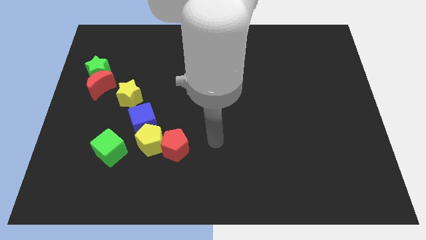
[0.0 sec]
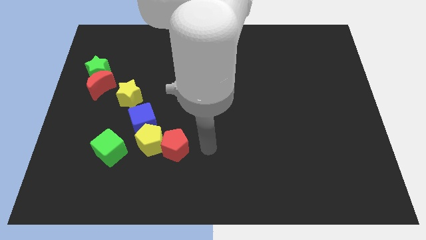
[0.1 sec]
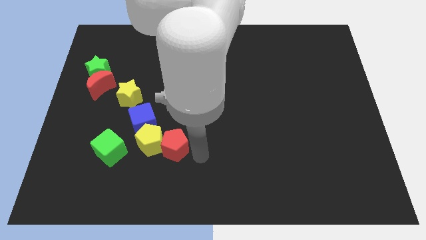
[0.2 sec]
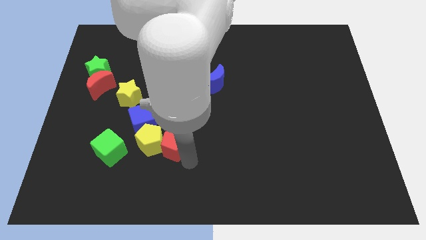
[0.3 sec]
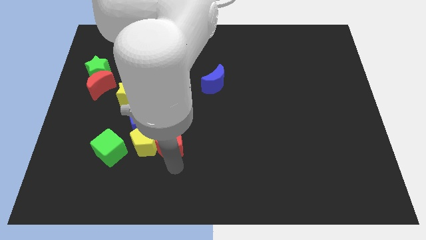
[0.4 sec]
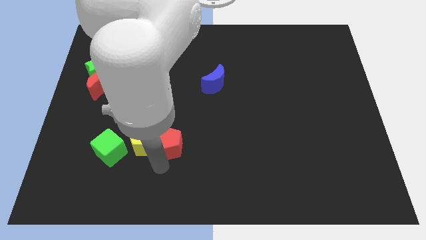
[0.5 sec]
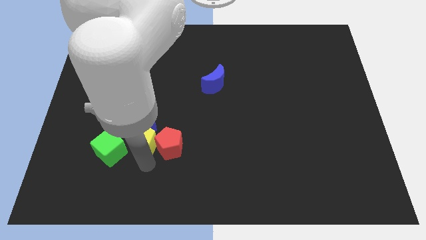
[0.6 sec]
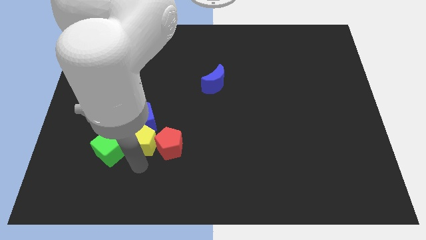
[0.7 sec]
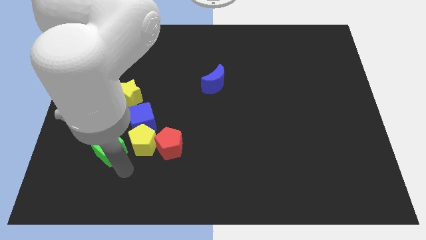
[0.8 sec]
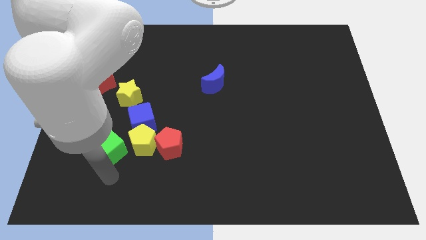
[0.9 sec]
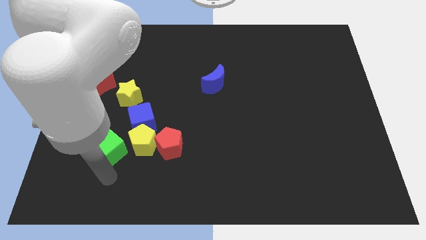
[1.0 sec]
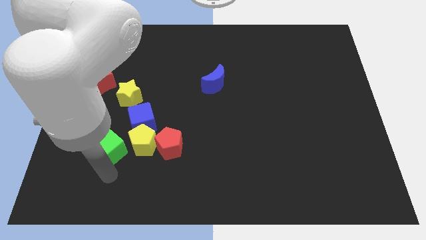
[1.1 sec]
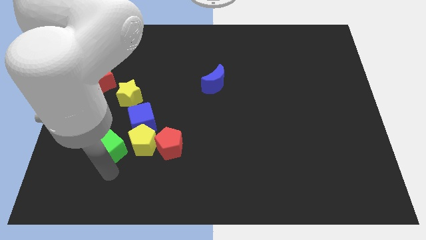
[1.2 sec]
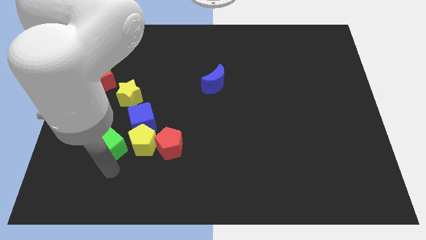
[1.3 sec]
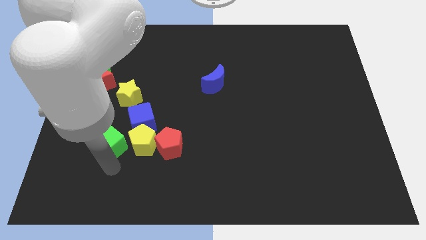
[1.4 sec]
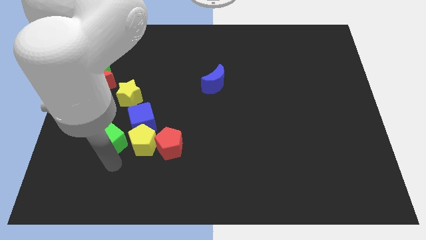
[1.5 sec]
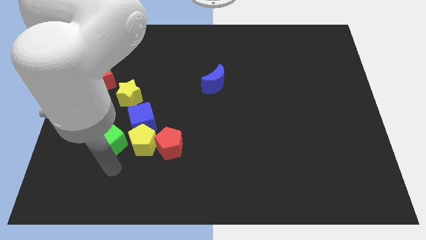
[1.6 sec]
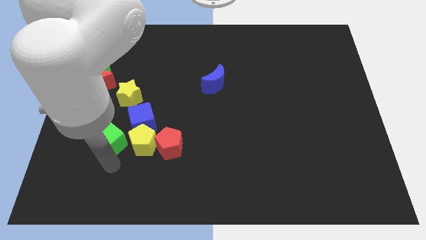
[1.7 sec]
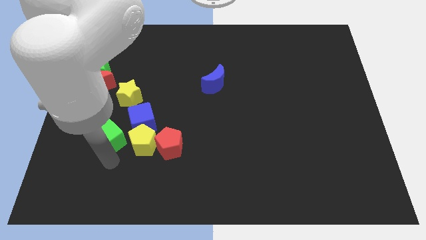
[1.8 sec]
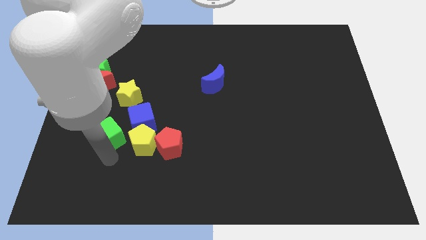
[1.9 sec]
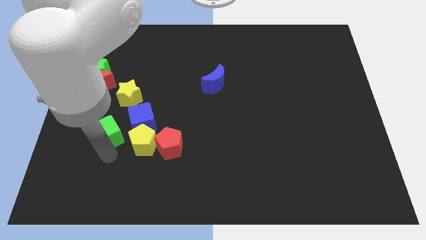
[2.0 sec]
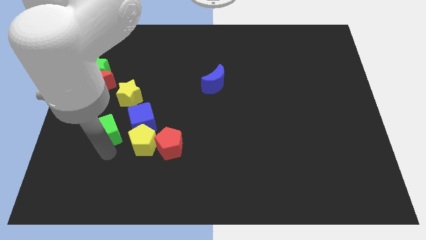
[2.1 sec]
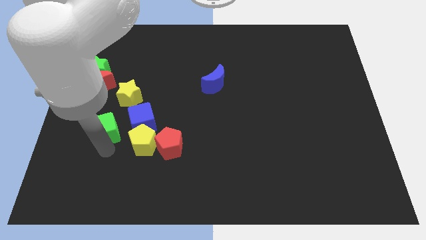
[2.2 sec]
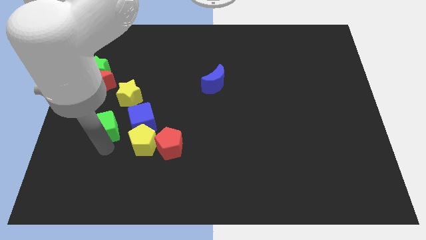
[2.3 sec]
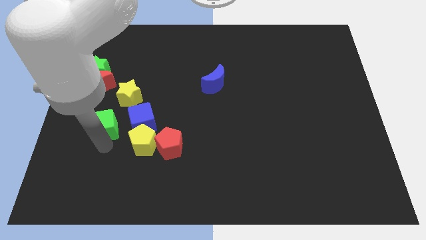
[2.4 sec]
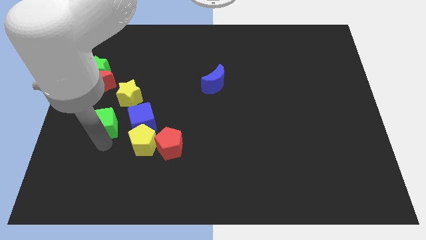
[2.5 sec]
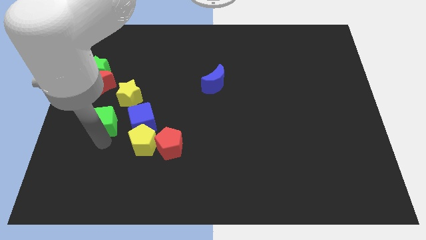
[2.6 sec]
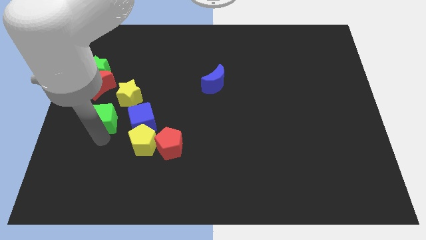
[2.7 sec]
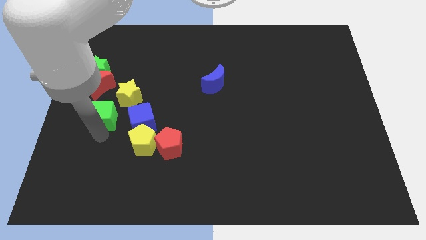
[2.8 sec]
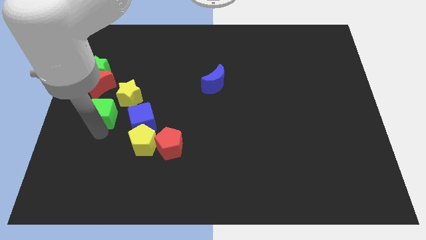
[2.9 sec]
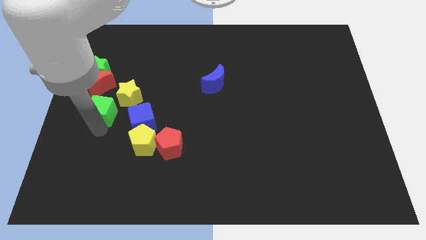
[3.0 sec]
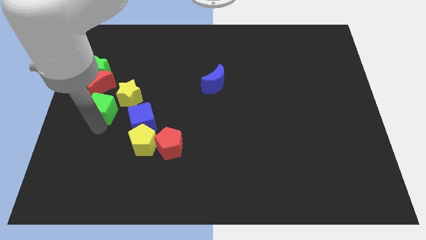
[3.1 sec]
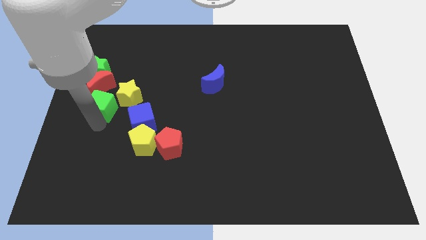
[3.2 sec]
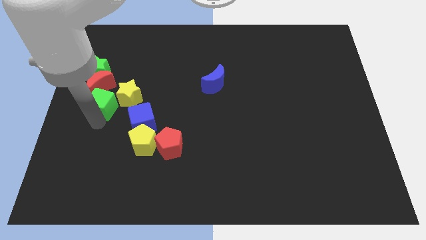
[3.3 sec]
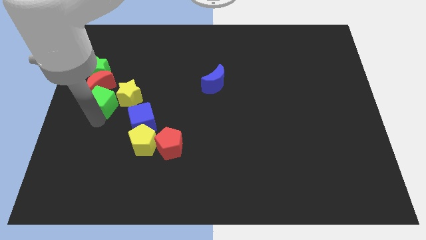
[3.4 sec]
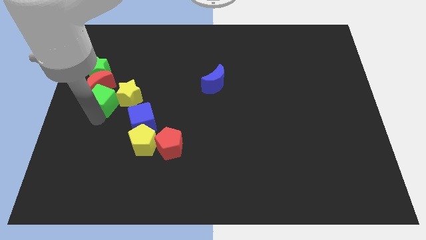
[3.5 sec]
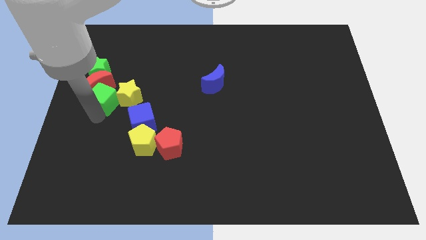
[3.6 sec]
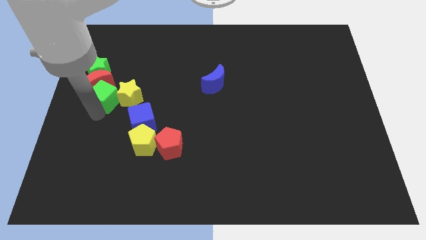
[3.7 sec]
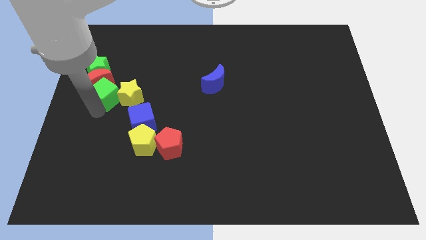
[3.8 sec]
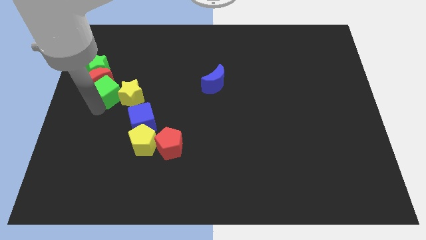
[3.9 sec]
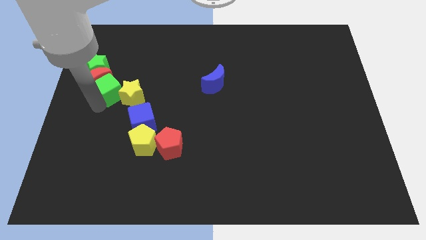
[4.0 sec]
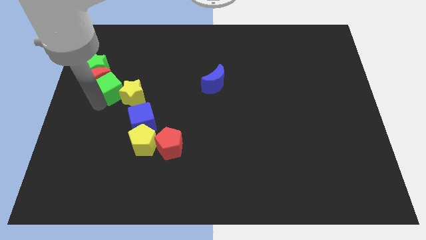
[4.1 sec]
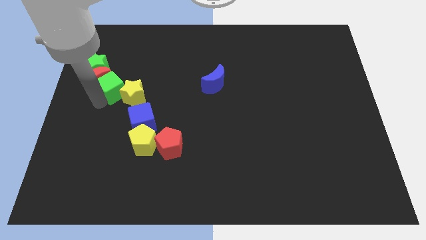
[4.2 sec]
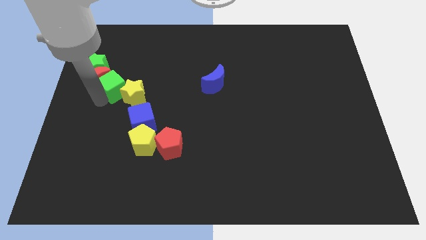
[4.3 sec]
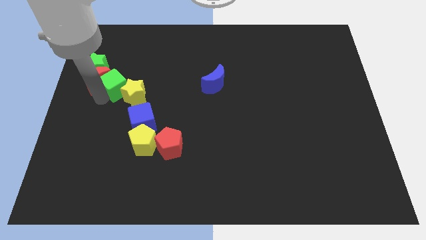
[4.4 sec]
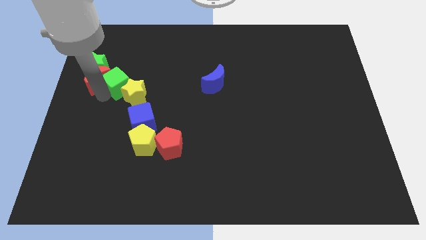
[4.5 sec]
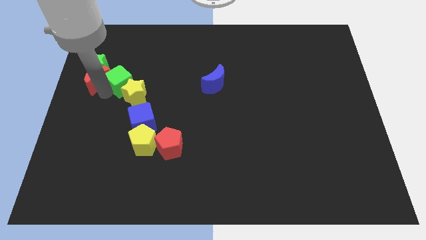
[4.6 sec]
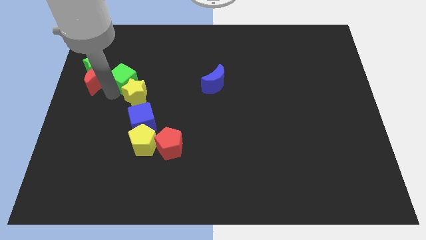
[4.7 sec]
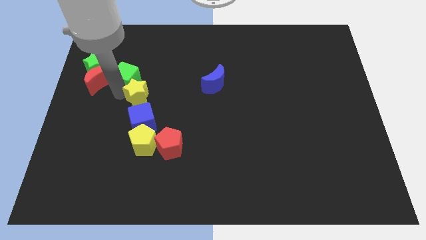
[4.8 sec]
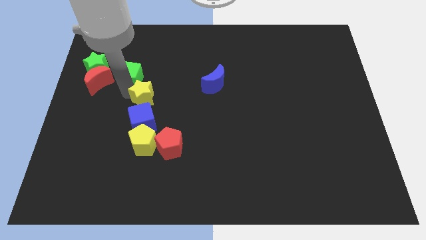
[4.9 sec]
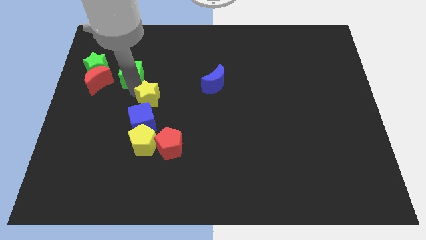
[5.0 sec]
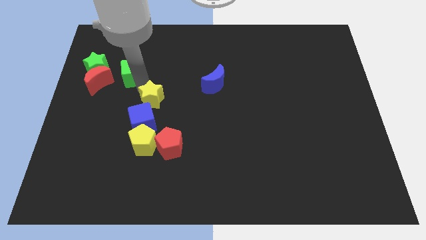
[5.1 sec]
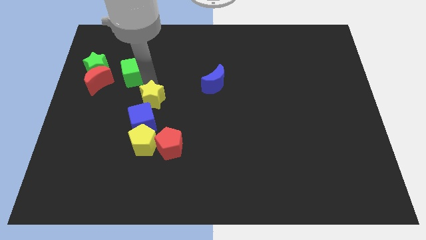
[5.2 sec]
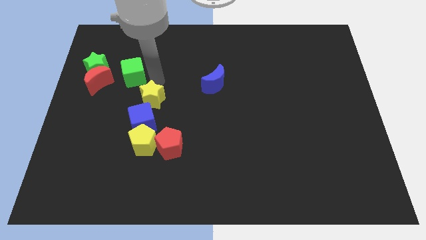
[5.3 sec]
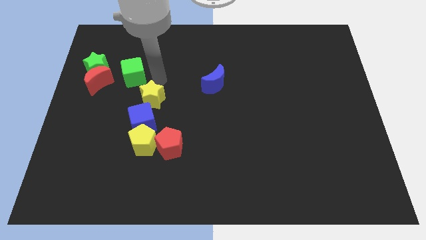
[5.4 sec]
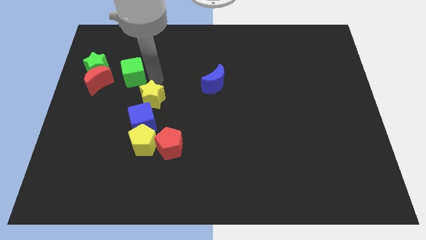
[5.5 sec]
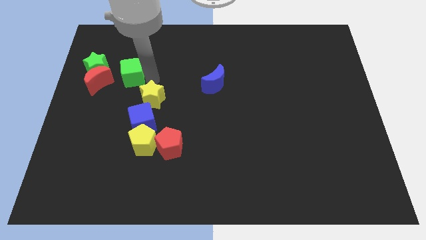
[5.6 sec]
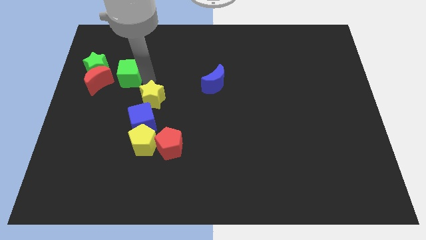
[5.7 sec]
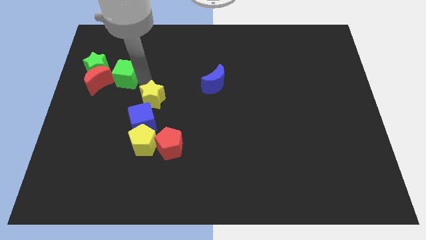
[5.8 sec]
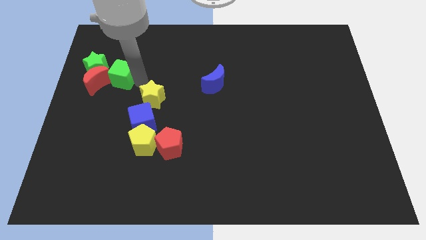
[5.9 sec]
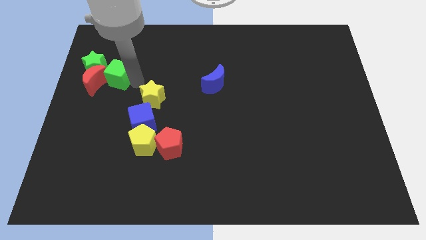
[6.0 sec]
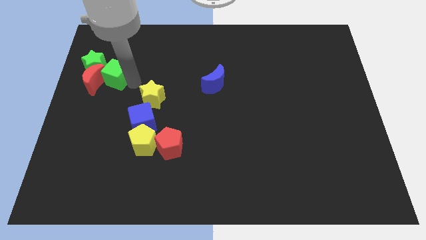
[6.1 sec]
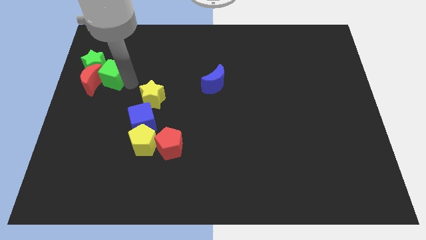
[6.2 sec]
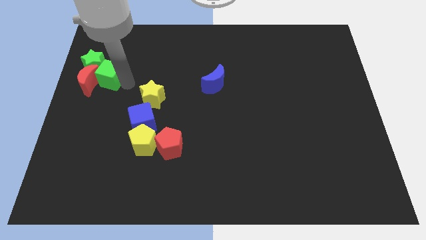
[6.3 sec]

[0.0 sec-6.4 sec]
push the green cube next to the green star

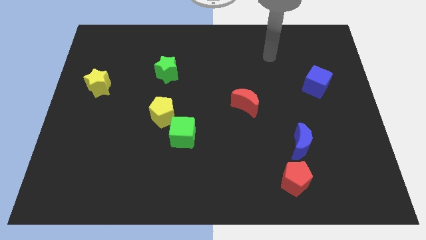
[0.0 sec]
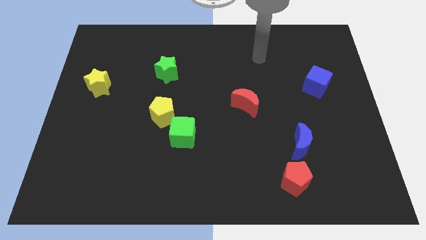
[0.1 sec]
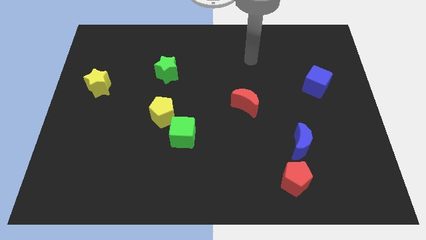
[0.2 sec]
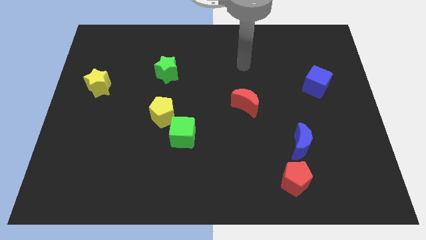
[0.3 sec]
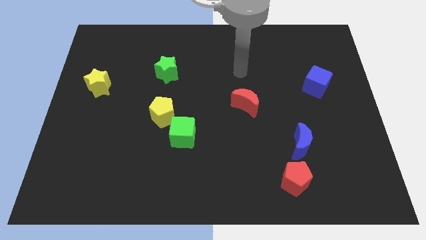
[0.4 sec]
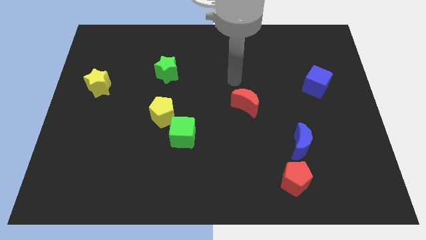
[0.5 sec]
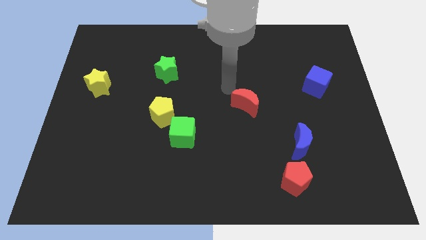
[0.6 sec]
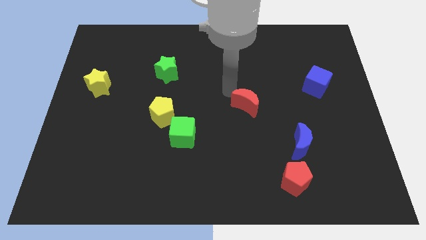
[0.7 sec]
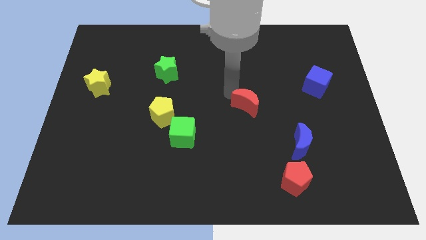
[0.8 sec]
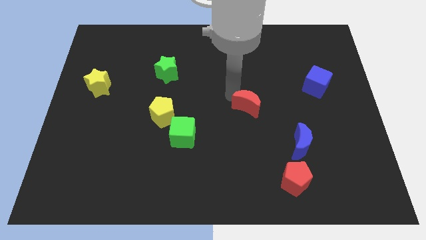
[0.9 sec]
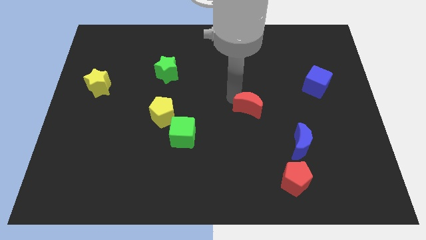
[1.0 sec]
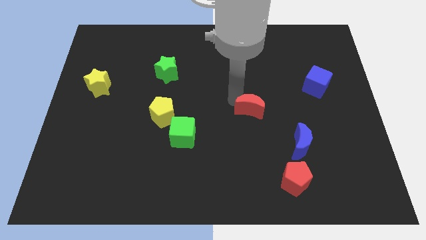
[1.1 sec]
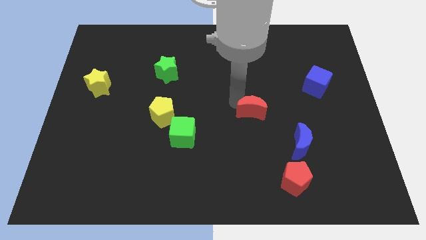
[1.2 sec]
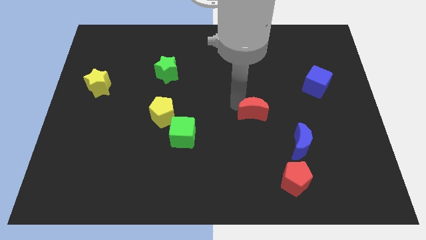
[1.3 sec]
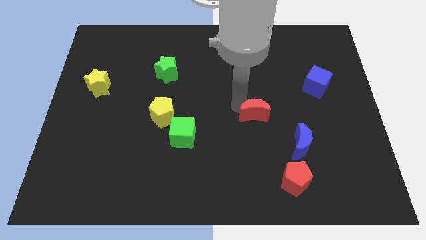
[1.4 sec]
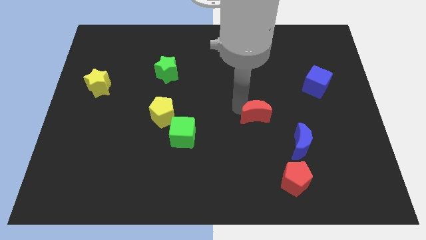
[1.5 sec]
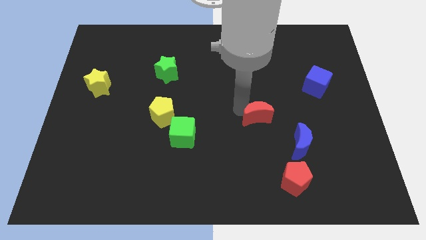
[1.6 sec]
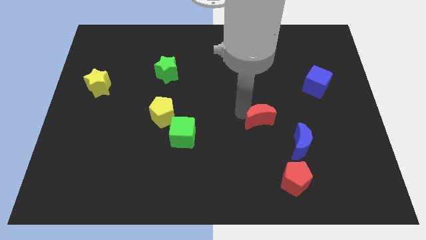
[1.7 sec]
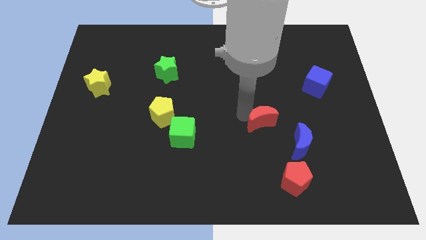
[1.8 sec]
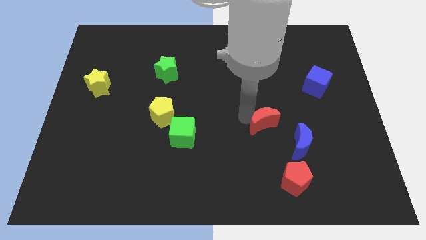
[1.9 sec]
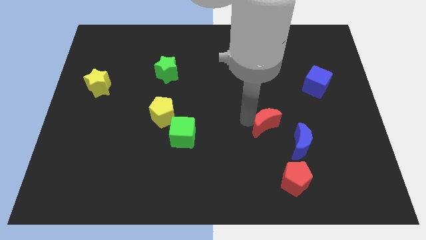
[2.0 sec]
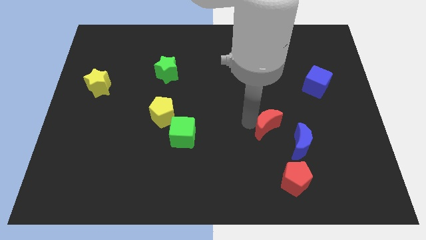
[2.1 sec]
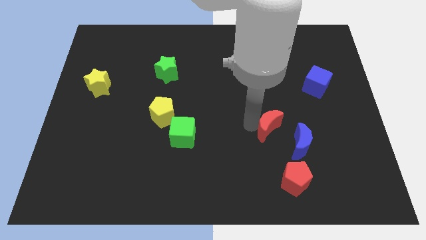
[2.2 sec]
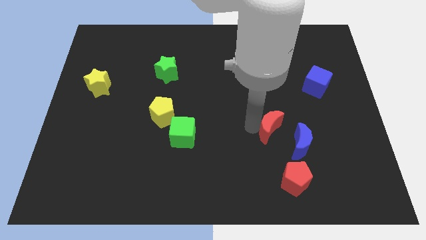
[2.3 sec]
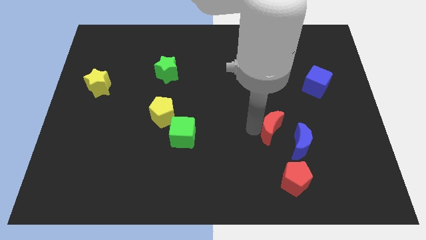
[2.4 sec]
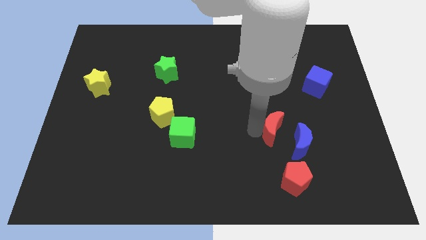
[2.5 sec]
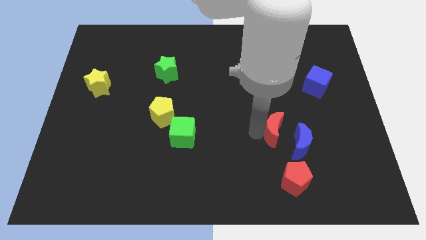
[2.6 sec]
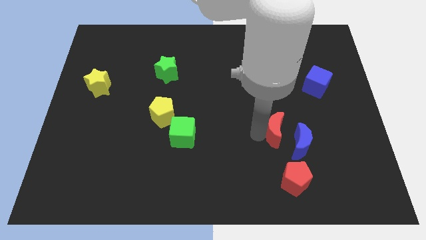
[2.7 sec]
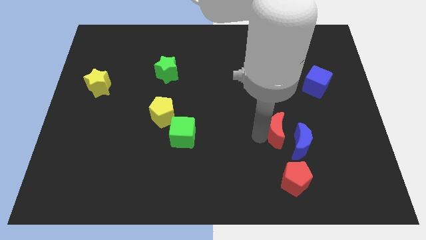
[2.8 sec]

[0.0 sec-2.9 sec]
put the red moon to the blue moon
